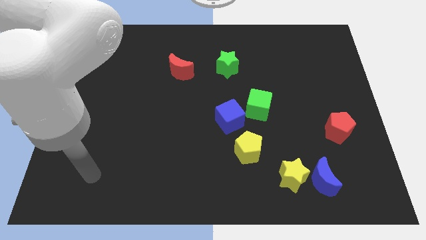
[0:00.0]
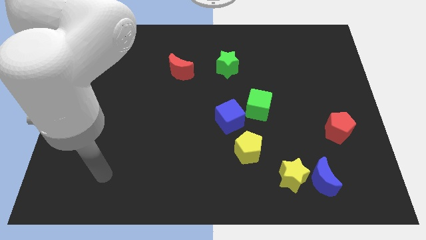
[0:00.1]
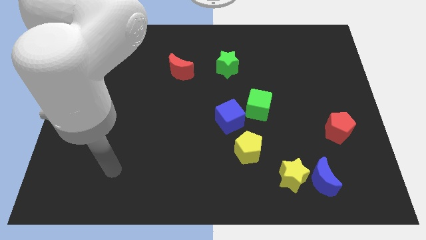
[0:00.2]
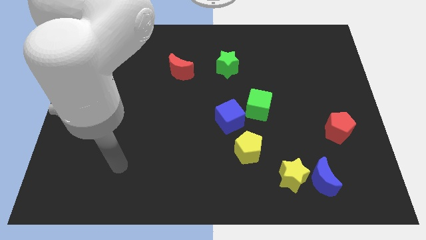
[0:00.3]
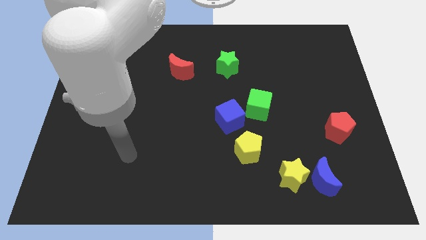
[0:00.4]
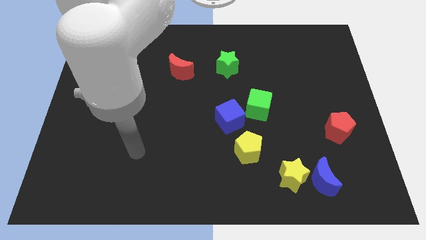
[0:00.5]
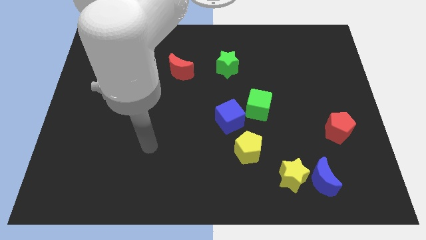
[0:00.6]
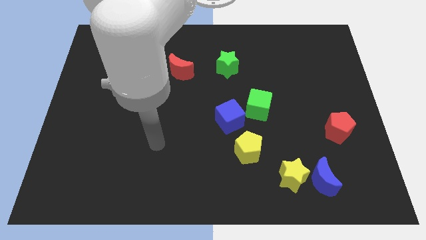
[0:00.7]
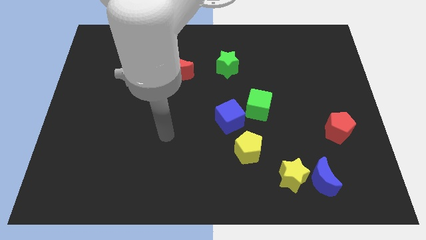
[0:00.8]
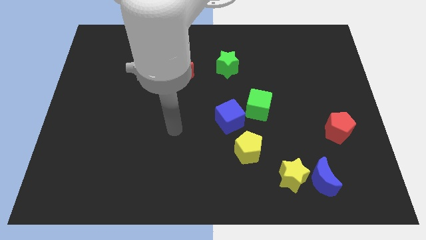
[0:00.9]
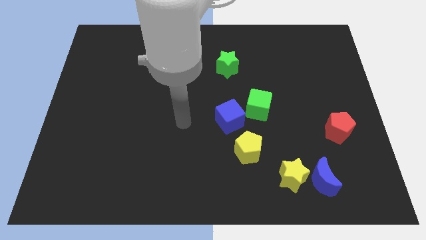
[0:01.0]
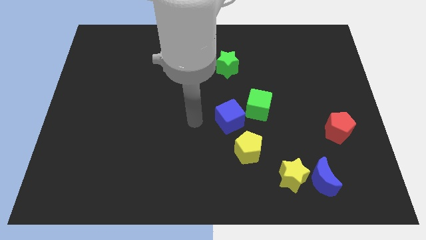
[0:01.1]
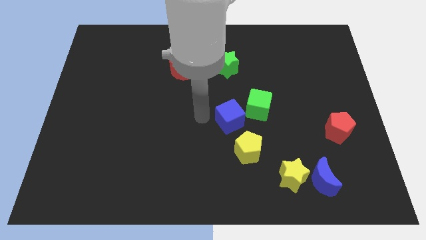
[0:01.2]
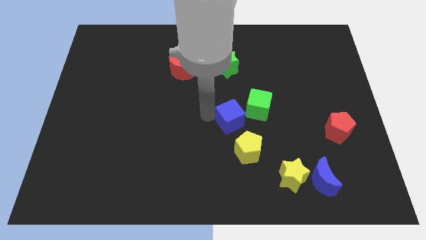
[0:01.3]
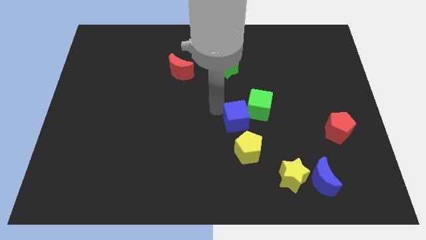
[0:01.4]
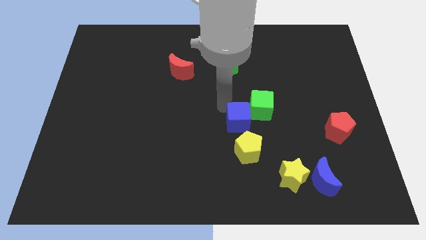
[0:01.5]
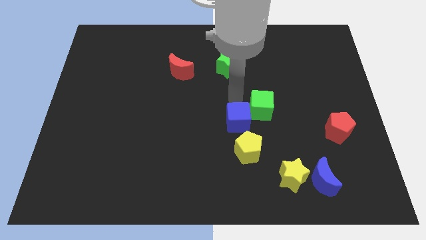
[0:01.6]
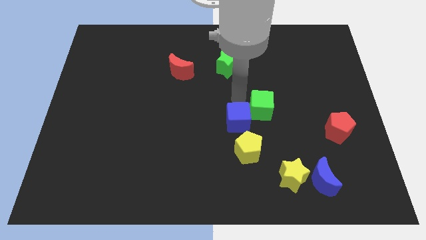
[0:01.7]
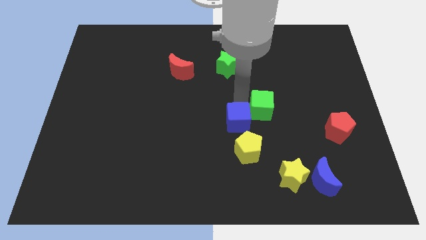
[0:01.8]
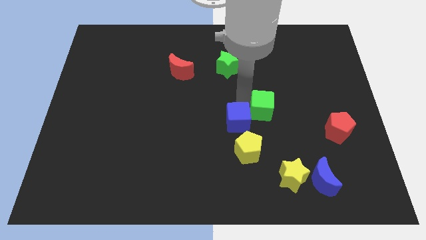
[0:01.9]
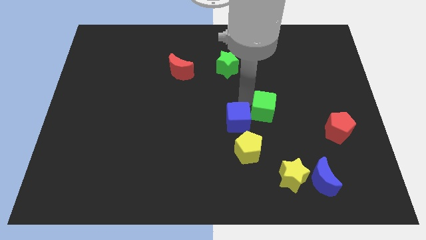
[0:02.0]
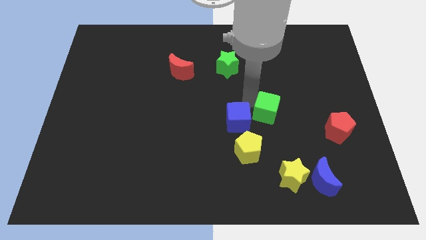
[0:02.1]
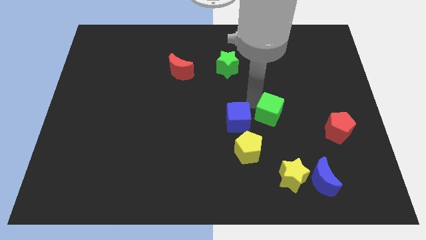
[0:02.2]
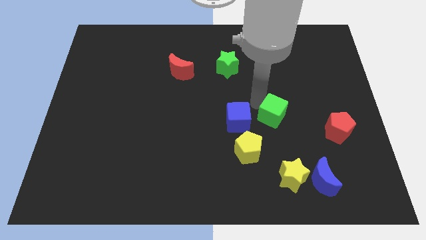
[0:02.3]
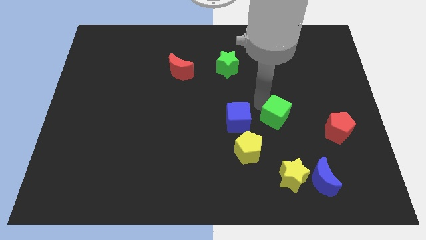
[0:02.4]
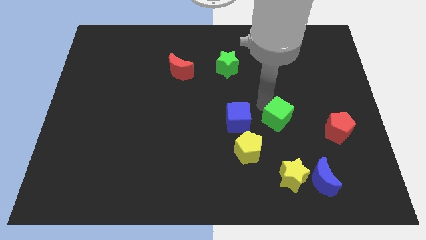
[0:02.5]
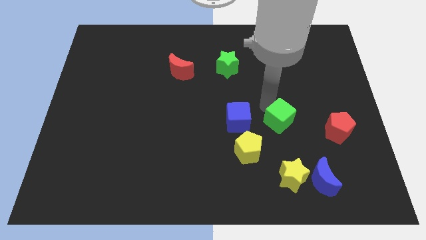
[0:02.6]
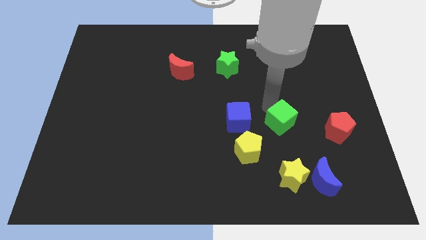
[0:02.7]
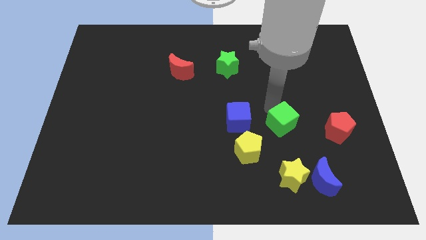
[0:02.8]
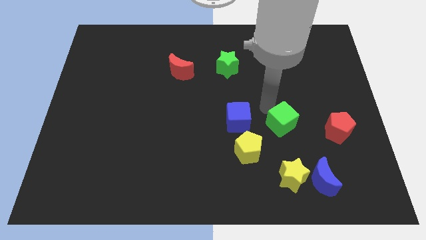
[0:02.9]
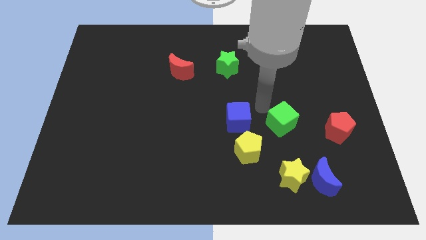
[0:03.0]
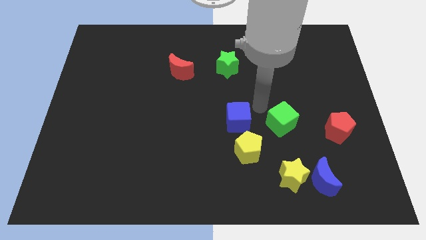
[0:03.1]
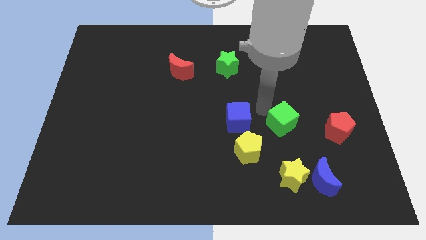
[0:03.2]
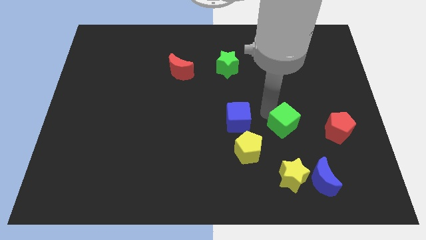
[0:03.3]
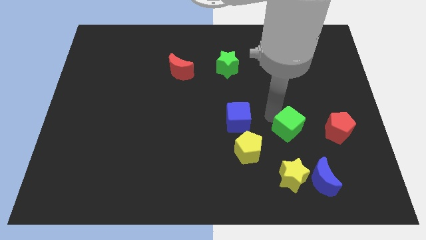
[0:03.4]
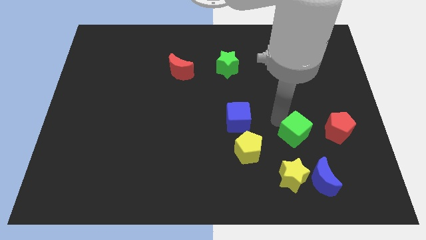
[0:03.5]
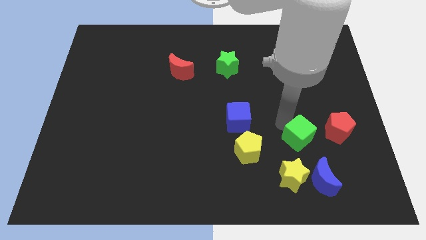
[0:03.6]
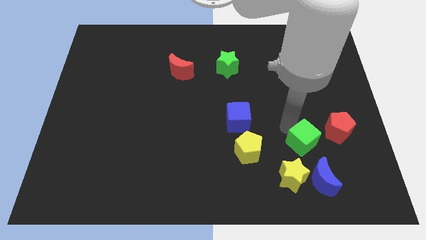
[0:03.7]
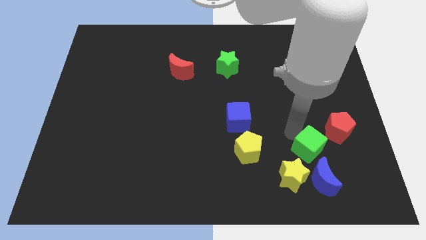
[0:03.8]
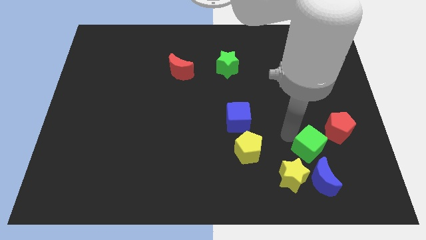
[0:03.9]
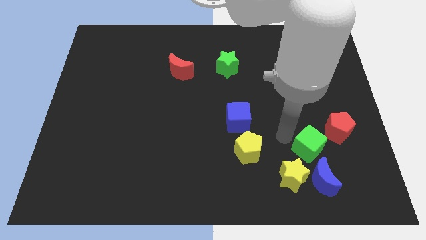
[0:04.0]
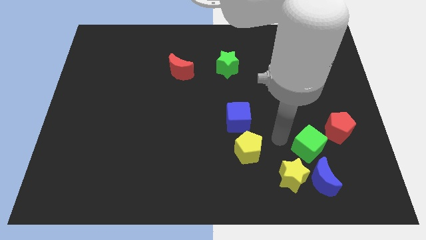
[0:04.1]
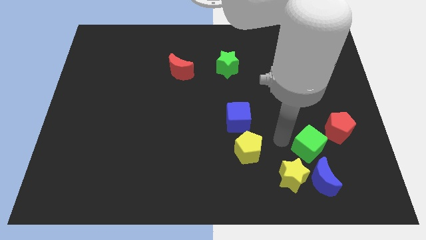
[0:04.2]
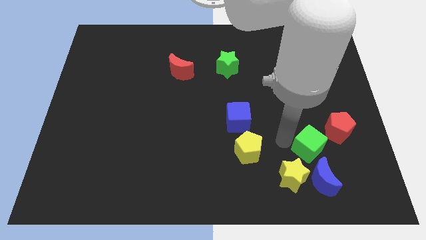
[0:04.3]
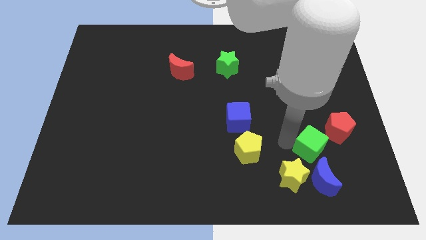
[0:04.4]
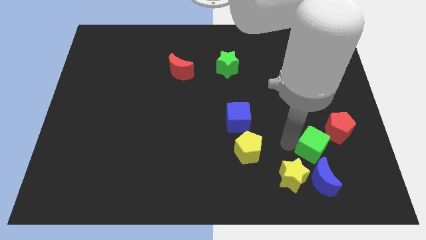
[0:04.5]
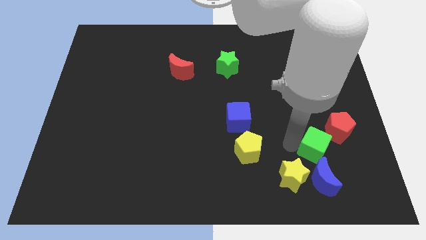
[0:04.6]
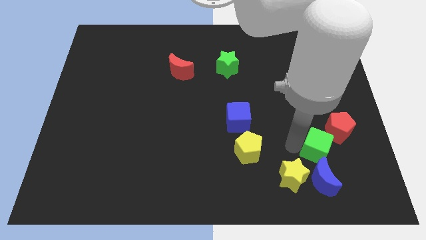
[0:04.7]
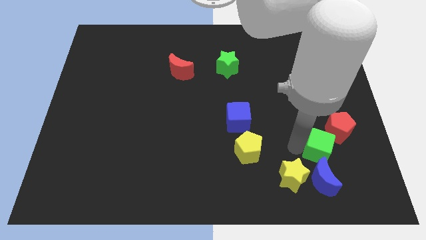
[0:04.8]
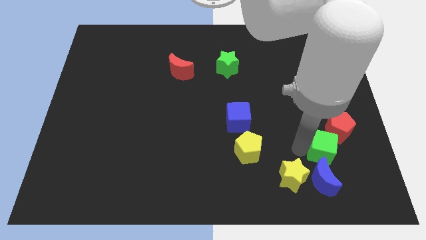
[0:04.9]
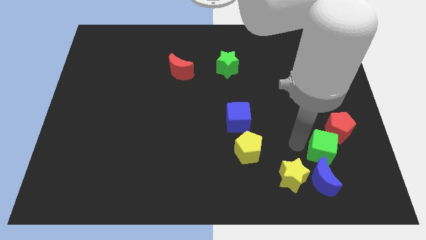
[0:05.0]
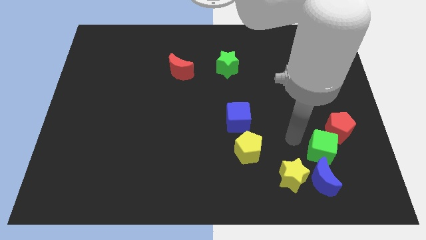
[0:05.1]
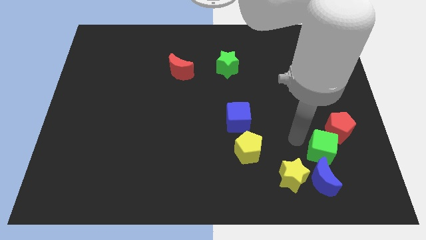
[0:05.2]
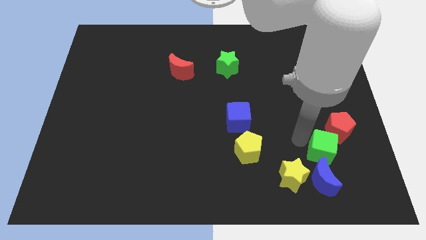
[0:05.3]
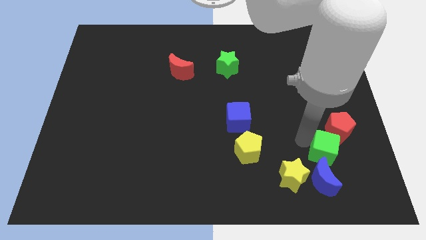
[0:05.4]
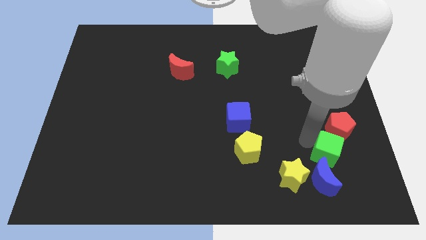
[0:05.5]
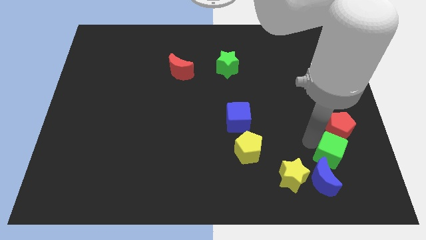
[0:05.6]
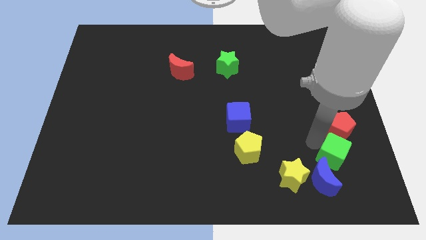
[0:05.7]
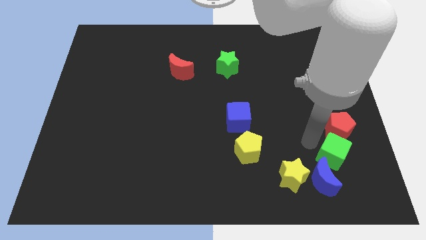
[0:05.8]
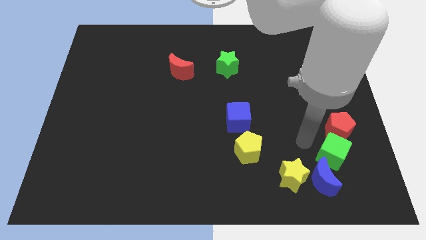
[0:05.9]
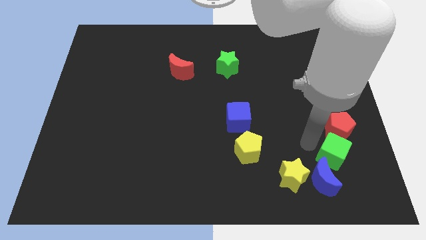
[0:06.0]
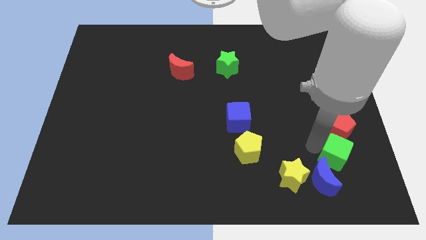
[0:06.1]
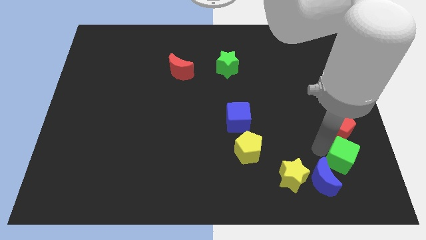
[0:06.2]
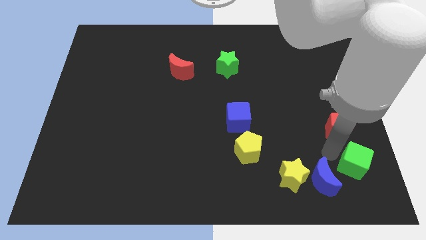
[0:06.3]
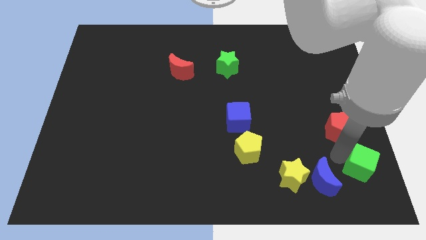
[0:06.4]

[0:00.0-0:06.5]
push the green cube to the bottom right

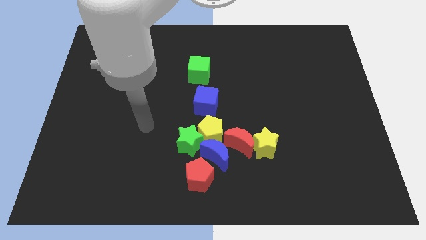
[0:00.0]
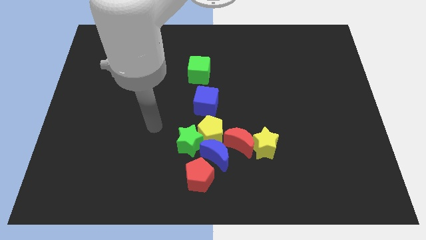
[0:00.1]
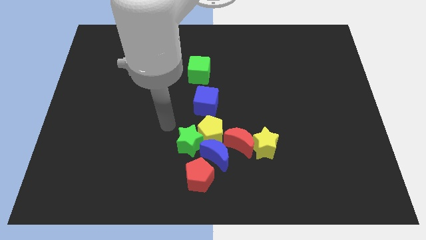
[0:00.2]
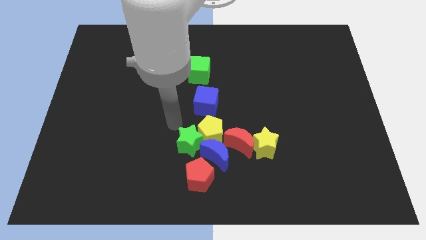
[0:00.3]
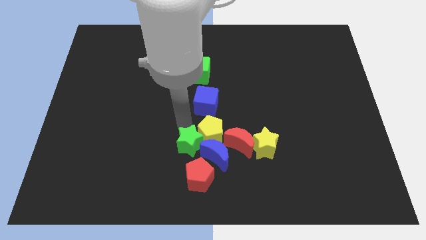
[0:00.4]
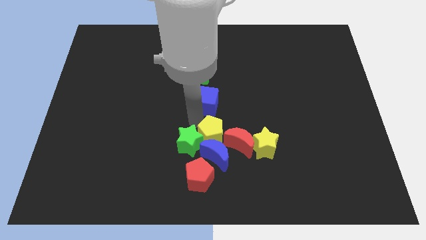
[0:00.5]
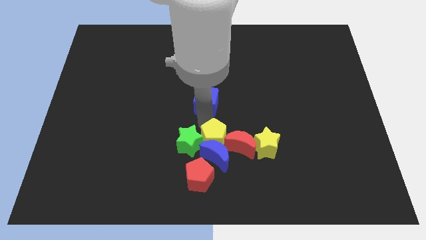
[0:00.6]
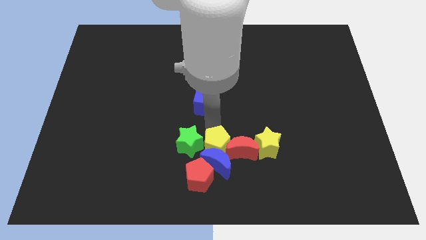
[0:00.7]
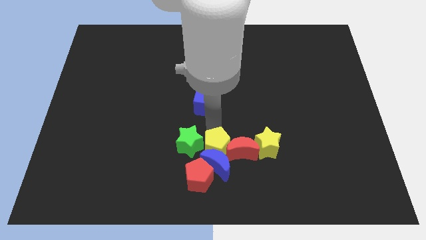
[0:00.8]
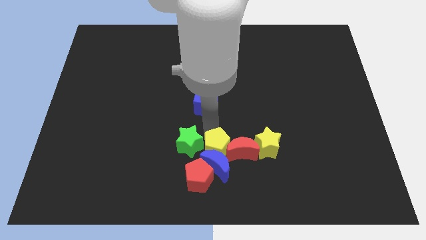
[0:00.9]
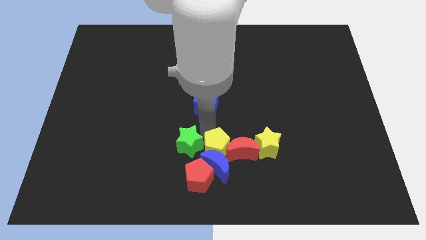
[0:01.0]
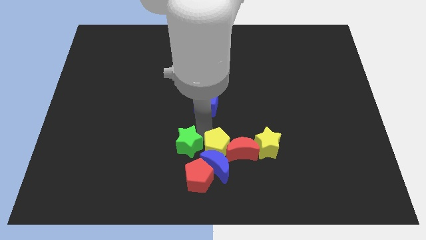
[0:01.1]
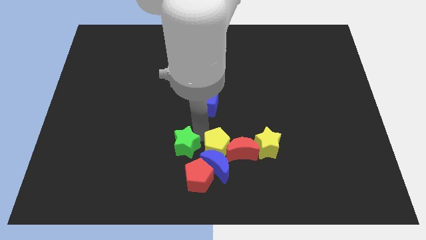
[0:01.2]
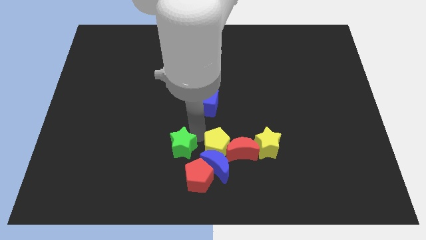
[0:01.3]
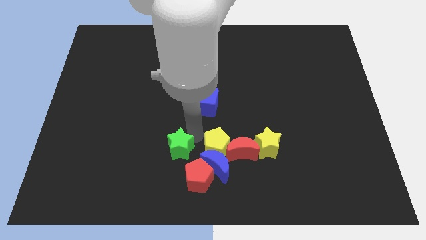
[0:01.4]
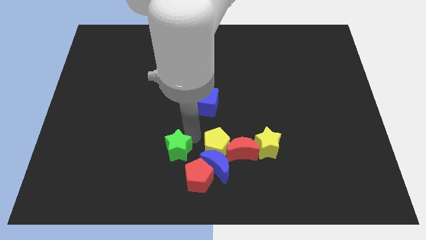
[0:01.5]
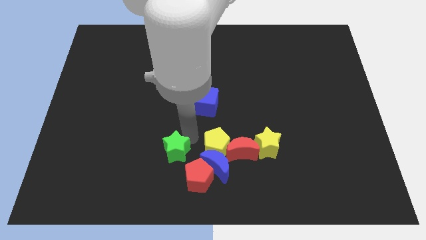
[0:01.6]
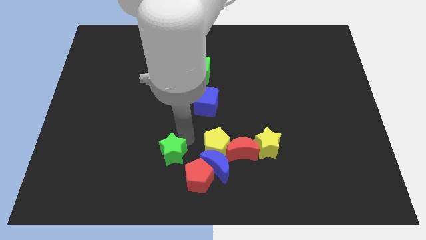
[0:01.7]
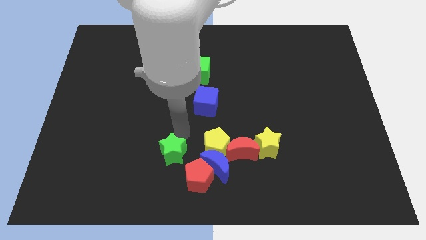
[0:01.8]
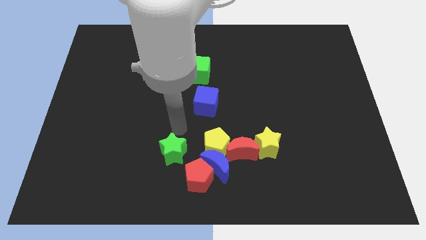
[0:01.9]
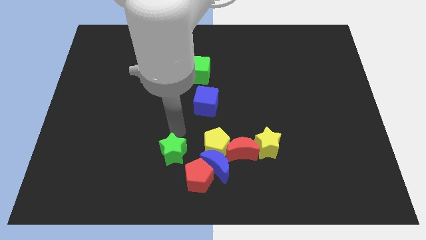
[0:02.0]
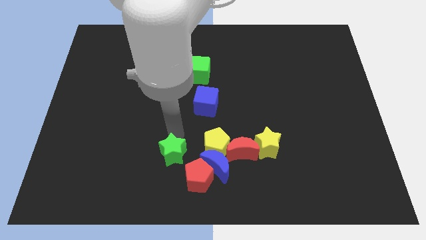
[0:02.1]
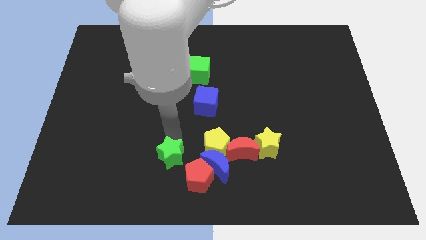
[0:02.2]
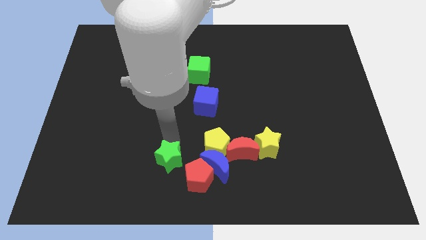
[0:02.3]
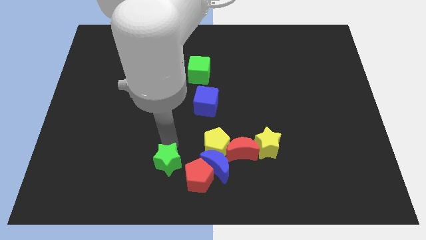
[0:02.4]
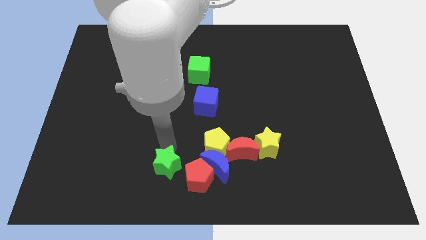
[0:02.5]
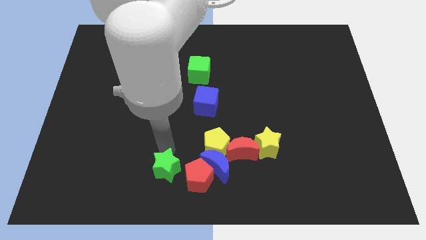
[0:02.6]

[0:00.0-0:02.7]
move the green star to the bottom side
